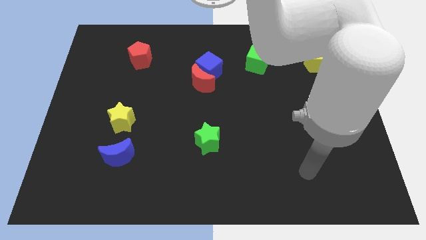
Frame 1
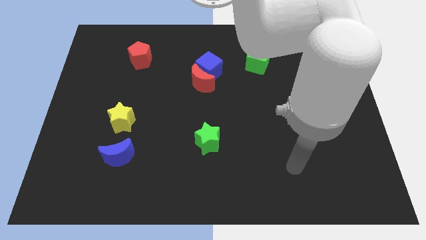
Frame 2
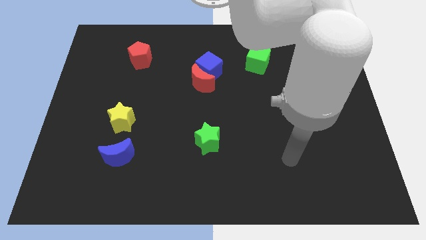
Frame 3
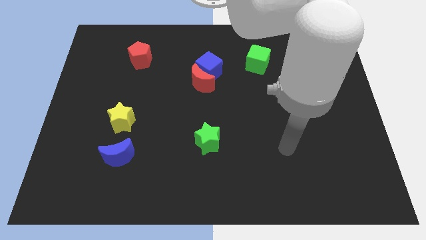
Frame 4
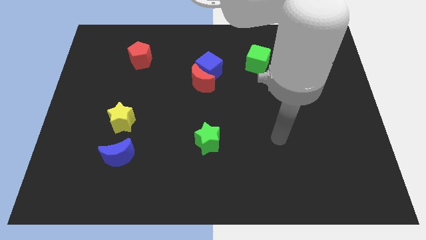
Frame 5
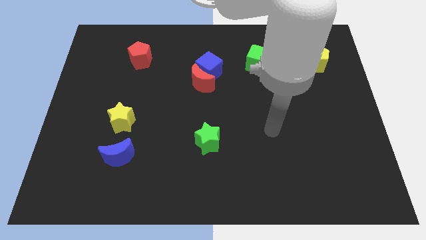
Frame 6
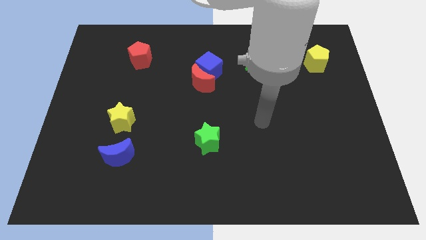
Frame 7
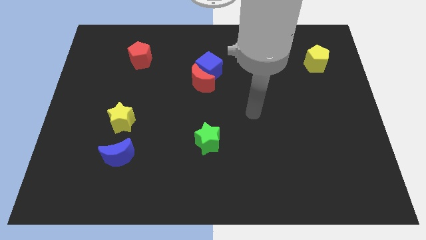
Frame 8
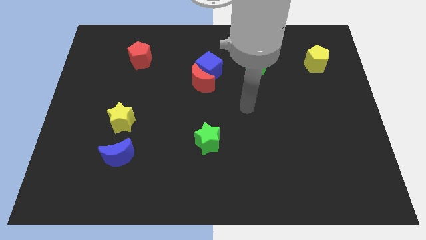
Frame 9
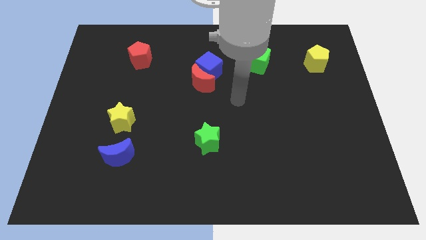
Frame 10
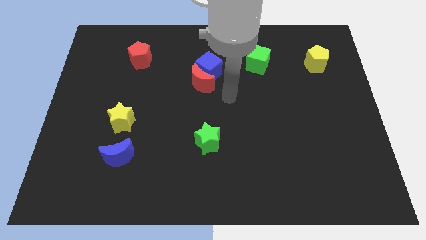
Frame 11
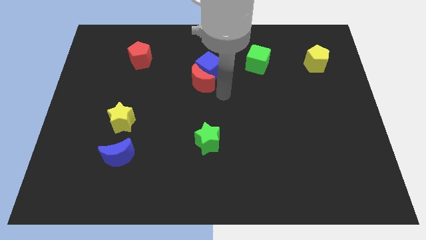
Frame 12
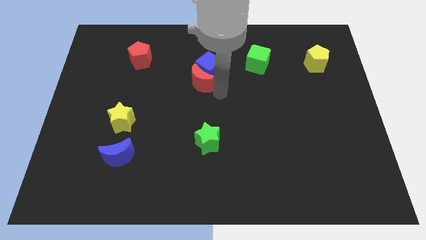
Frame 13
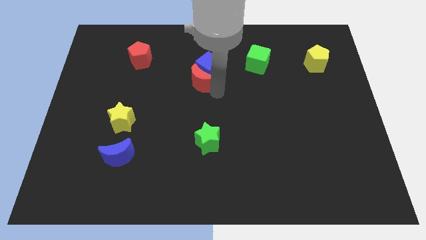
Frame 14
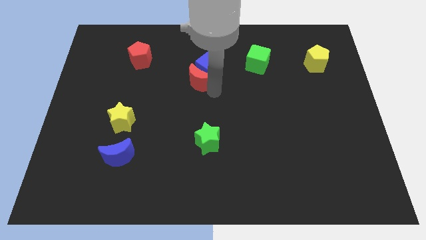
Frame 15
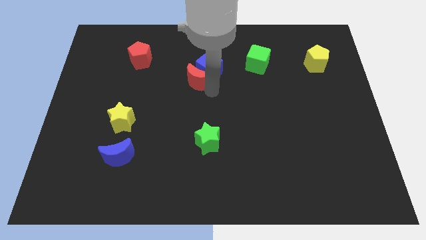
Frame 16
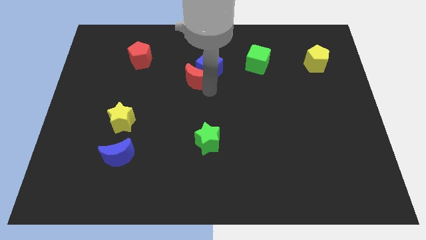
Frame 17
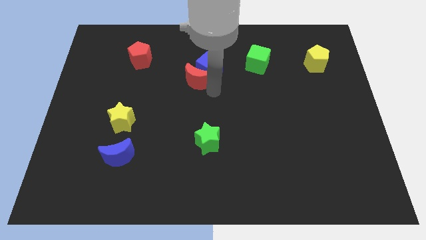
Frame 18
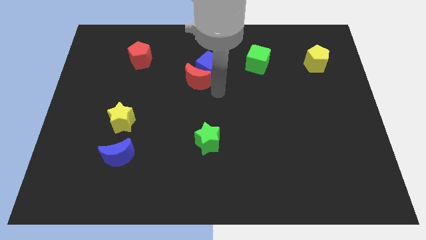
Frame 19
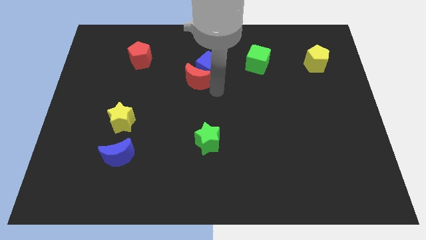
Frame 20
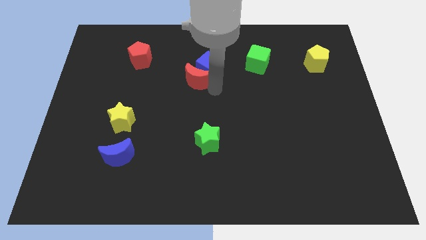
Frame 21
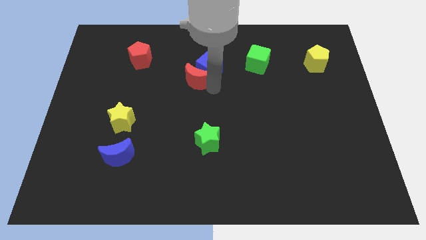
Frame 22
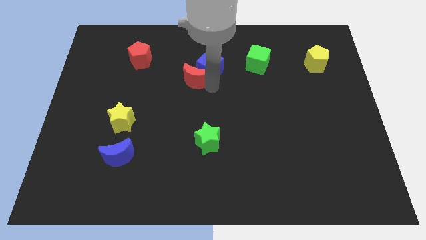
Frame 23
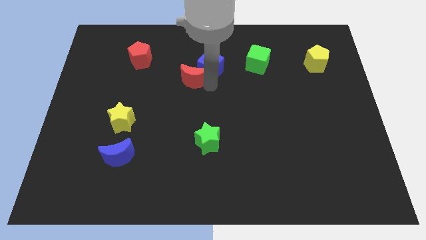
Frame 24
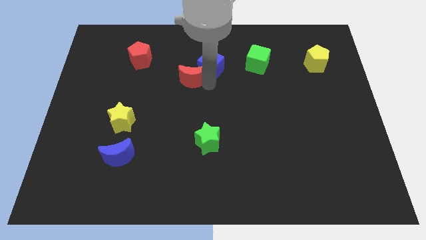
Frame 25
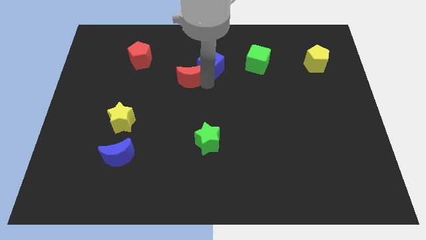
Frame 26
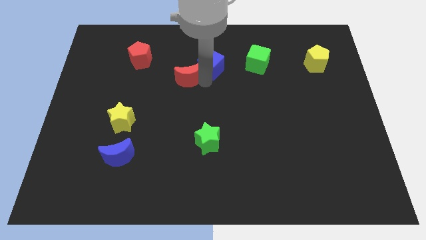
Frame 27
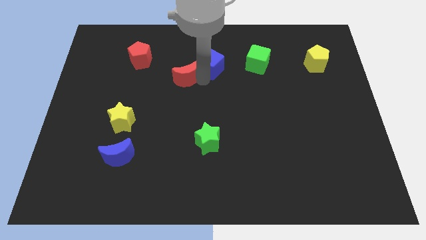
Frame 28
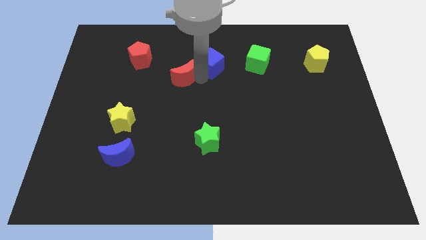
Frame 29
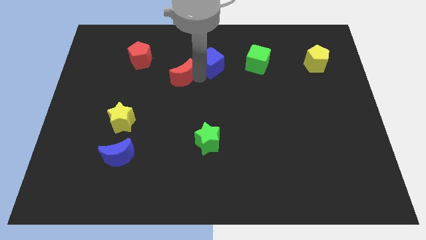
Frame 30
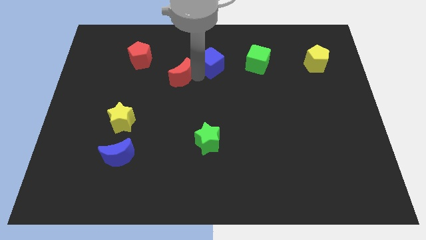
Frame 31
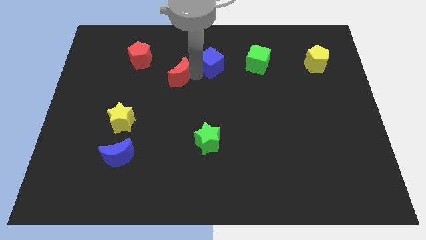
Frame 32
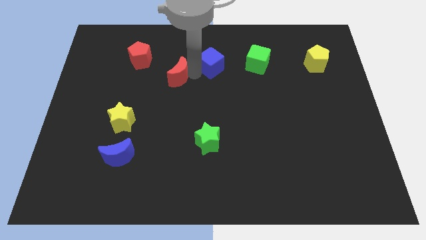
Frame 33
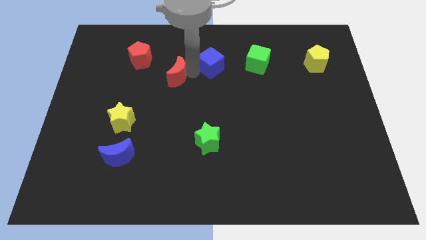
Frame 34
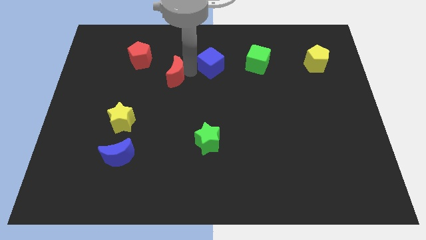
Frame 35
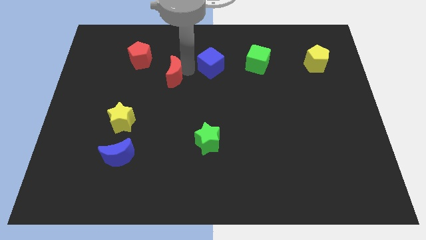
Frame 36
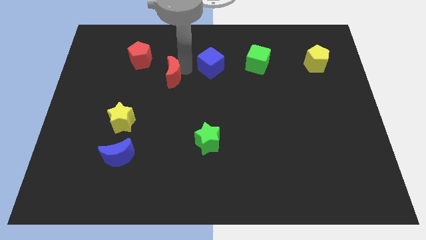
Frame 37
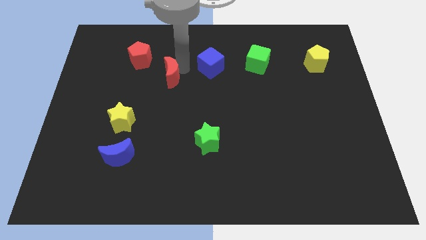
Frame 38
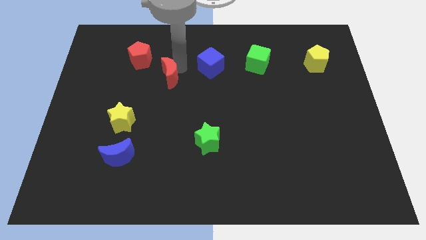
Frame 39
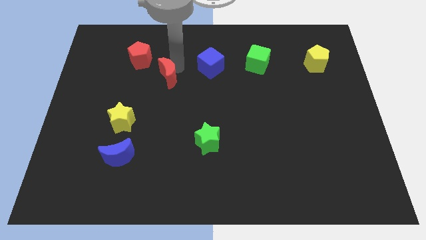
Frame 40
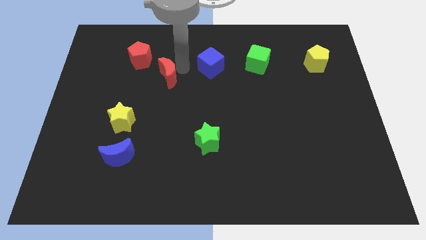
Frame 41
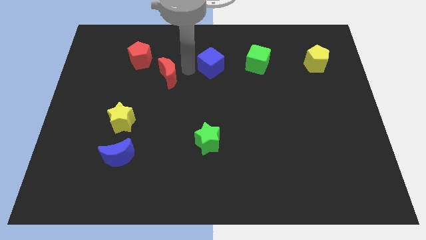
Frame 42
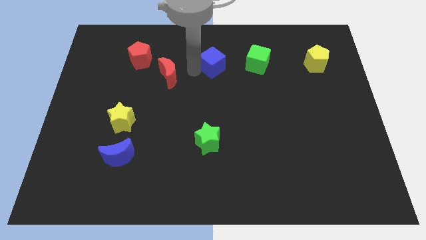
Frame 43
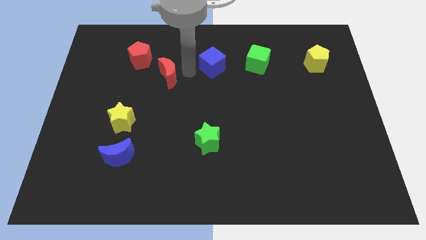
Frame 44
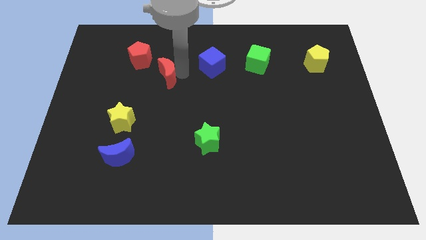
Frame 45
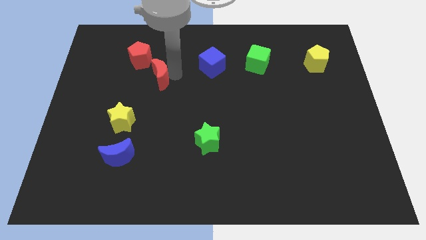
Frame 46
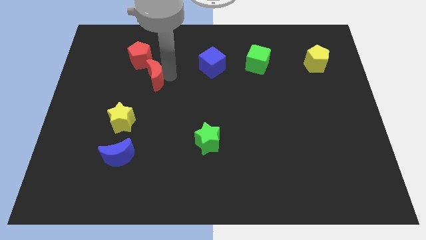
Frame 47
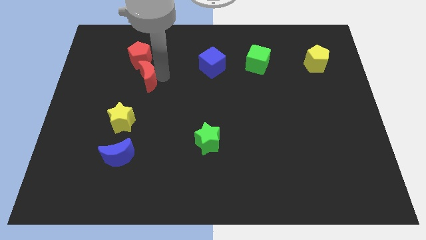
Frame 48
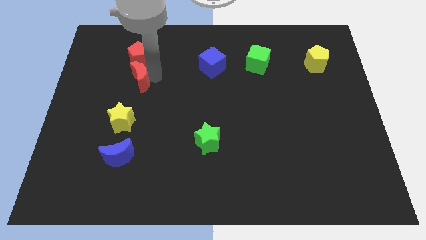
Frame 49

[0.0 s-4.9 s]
push the red moon to the top side of the yellow star

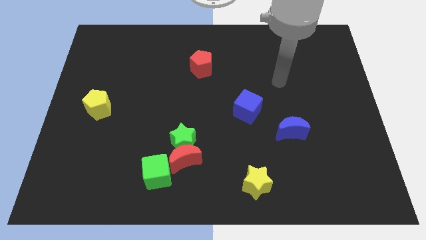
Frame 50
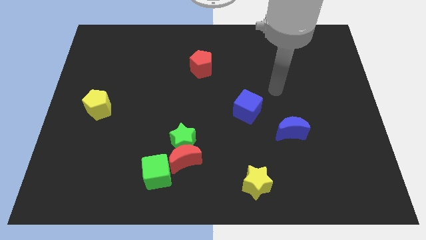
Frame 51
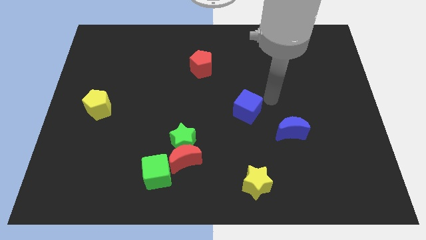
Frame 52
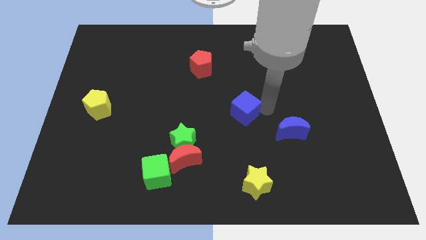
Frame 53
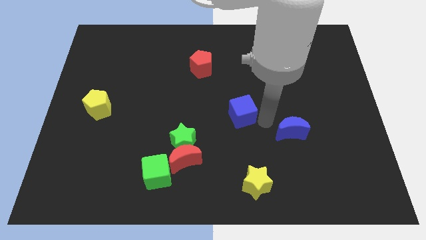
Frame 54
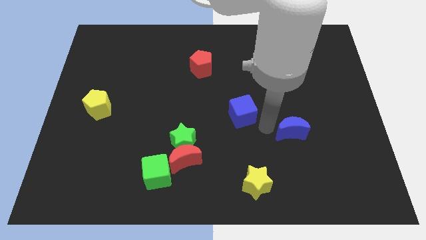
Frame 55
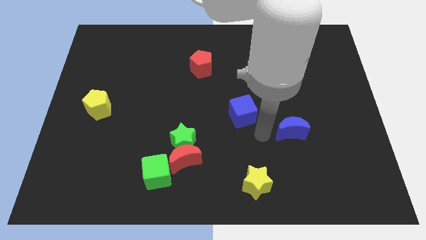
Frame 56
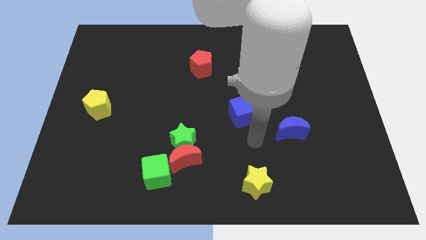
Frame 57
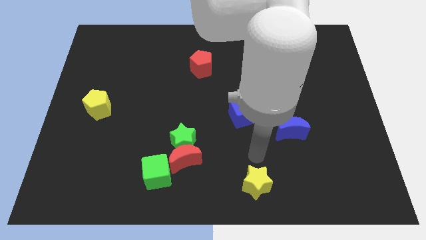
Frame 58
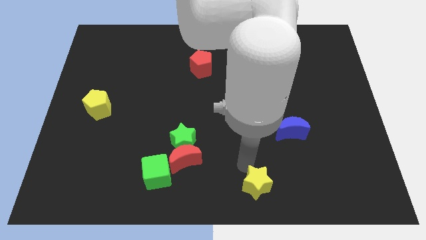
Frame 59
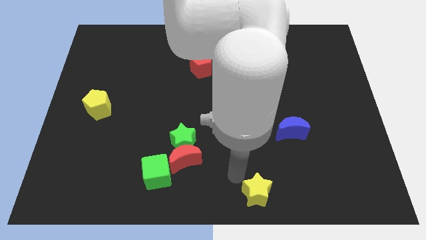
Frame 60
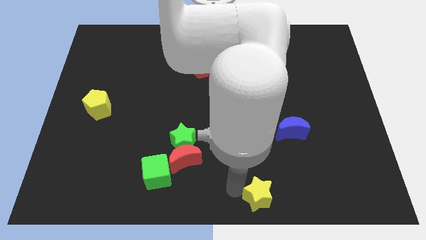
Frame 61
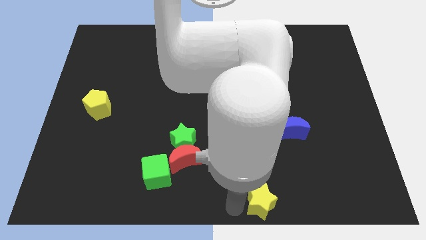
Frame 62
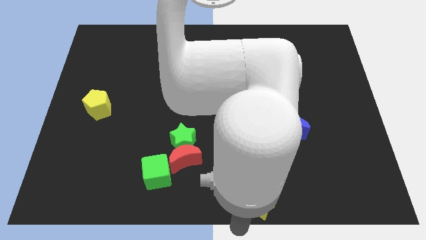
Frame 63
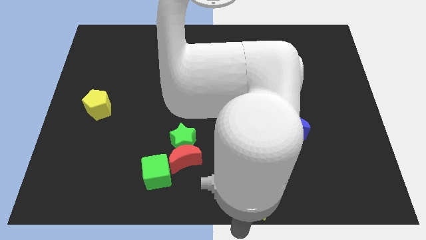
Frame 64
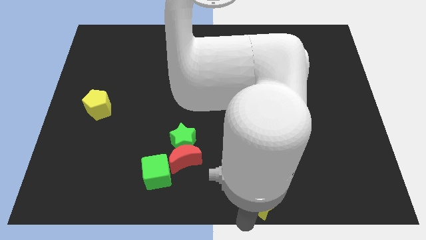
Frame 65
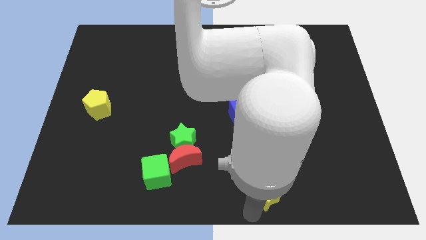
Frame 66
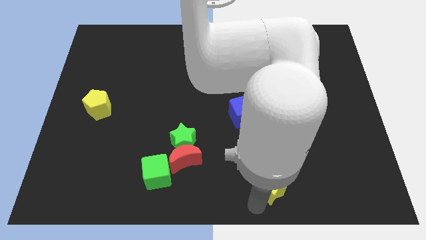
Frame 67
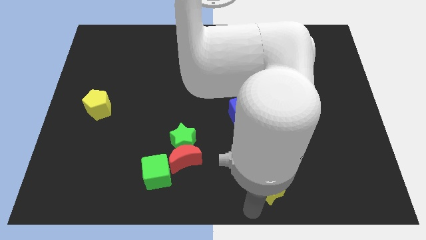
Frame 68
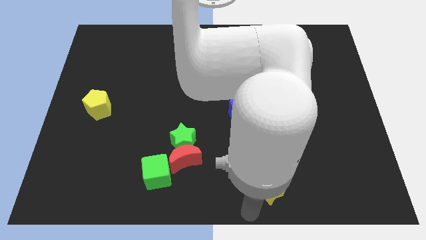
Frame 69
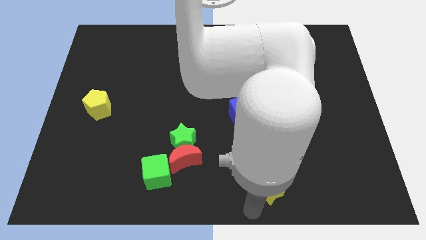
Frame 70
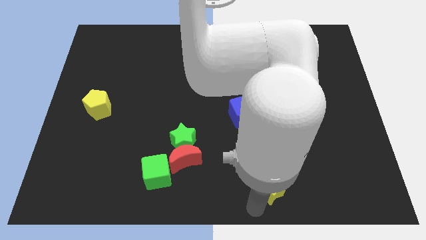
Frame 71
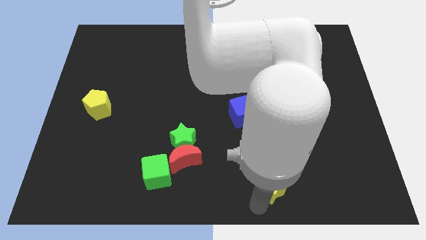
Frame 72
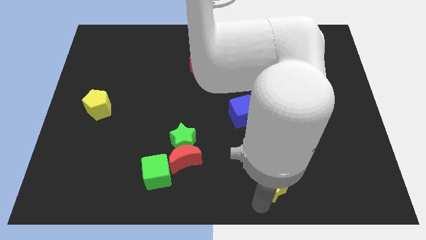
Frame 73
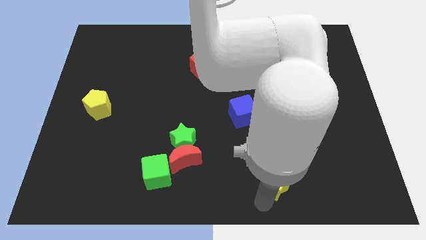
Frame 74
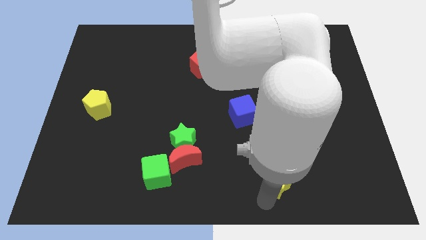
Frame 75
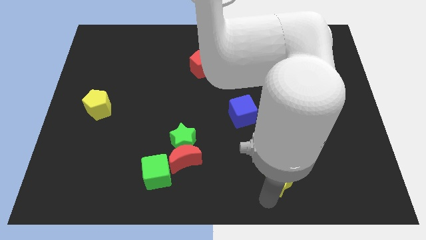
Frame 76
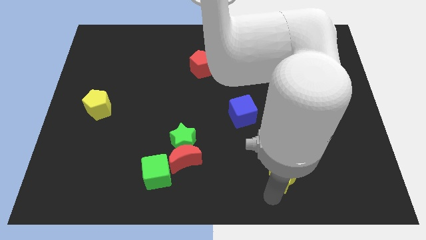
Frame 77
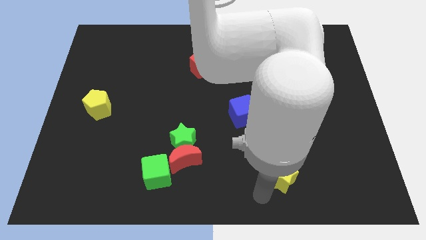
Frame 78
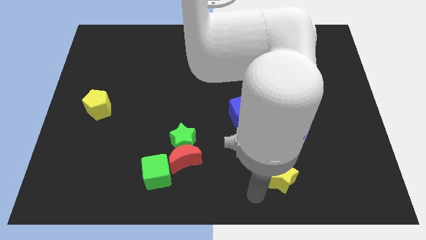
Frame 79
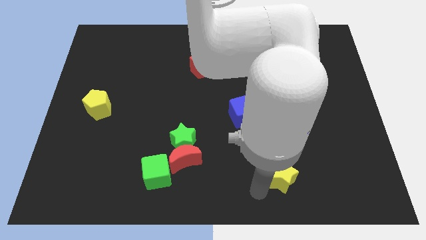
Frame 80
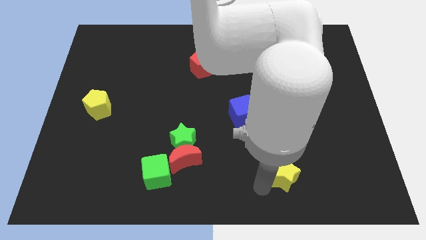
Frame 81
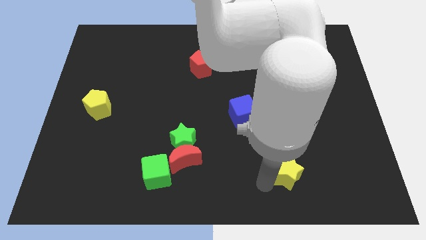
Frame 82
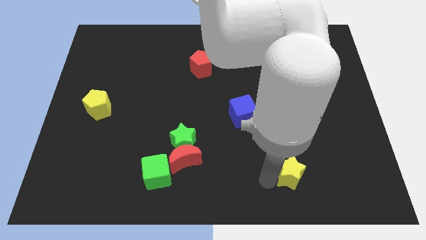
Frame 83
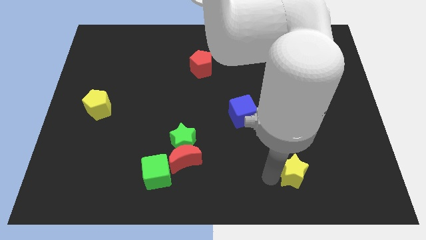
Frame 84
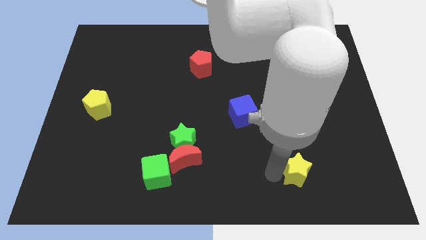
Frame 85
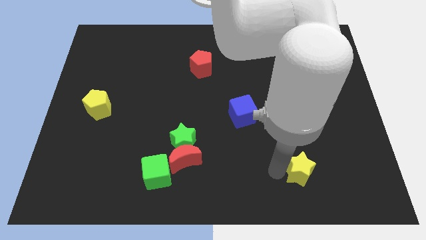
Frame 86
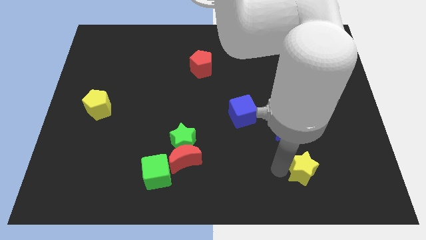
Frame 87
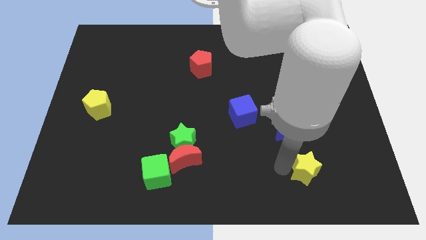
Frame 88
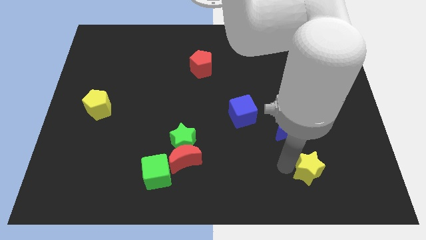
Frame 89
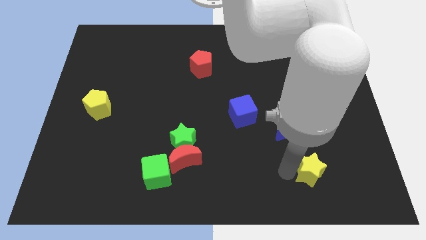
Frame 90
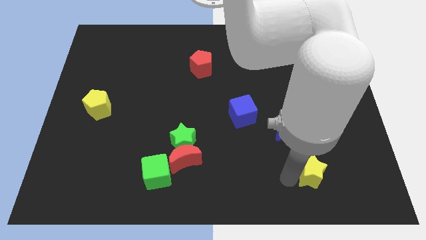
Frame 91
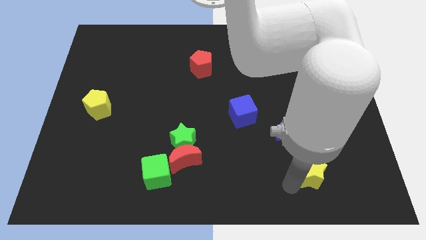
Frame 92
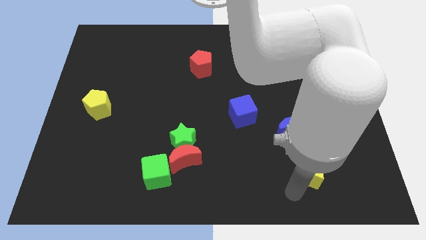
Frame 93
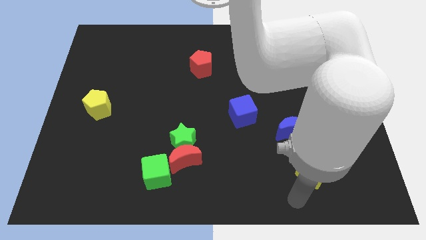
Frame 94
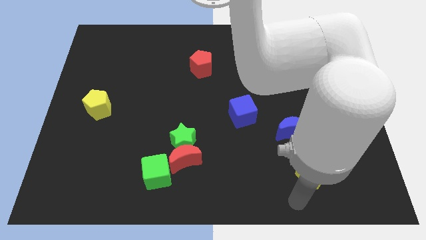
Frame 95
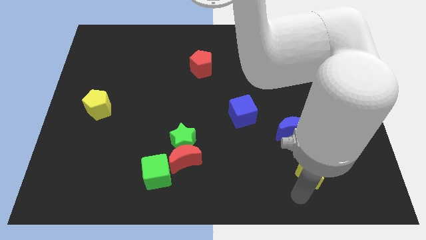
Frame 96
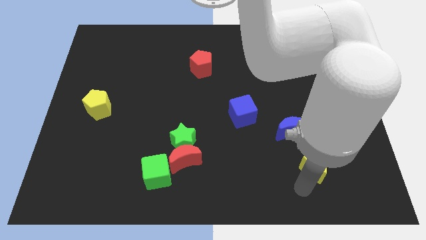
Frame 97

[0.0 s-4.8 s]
slide the yellow star to the bottom right side of the blue moon
